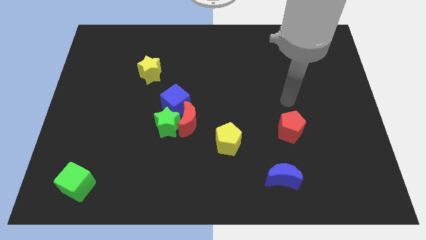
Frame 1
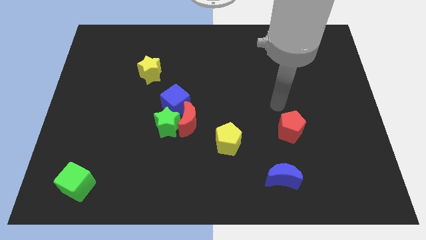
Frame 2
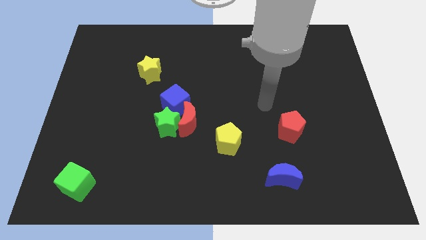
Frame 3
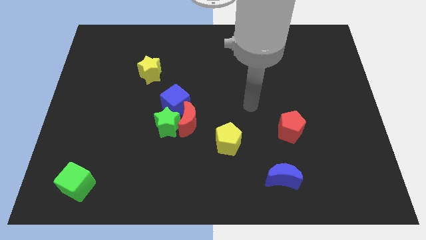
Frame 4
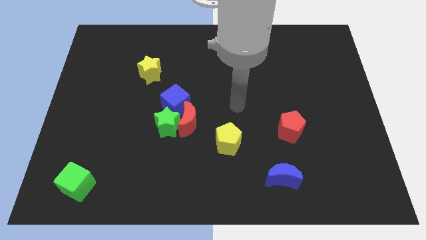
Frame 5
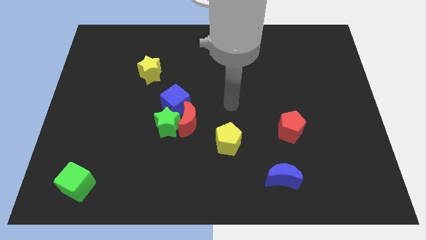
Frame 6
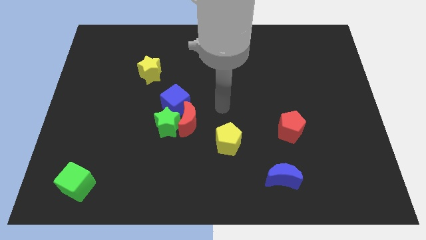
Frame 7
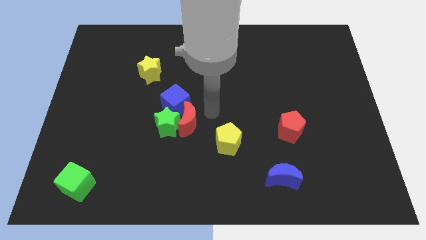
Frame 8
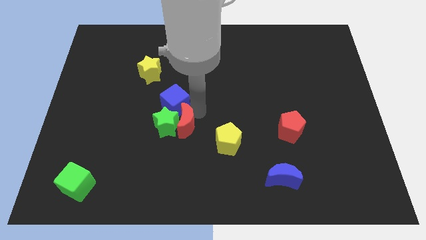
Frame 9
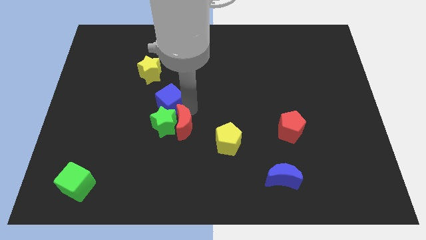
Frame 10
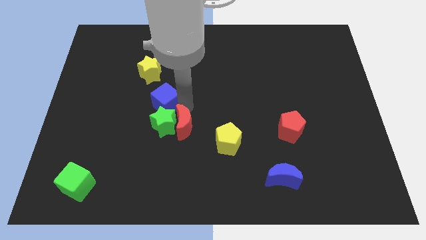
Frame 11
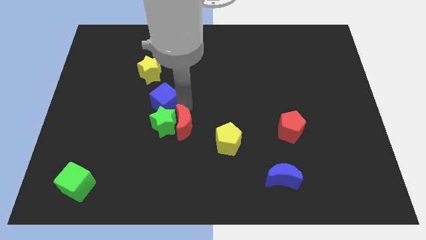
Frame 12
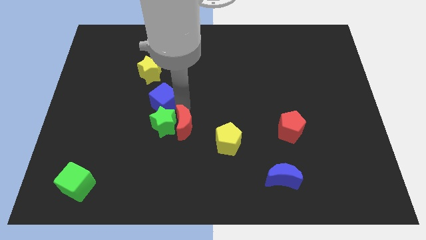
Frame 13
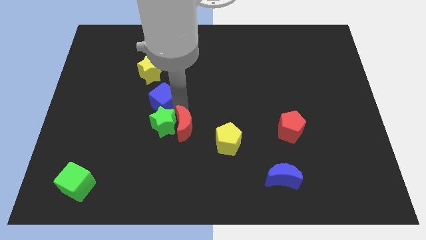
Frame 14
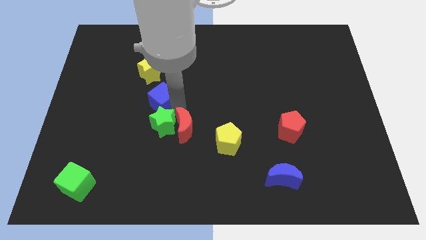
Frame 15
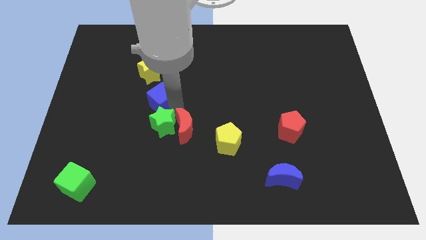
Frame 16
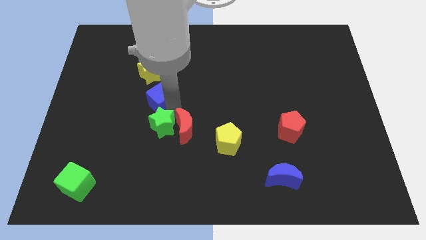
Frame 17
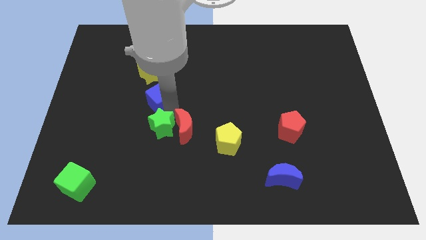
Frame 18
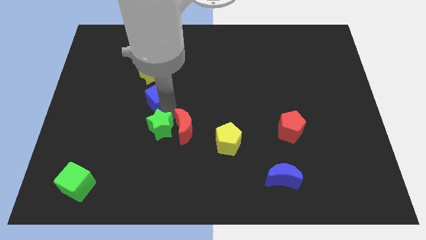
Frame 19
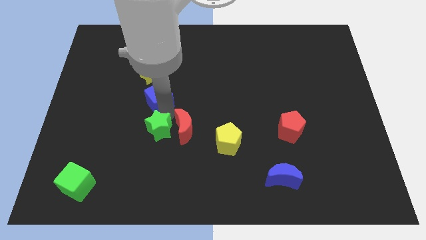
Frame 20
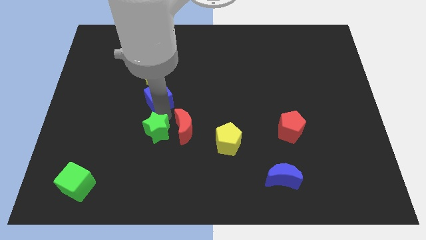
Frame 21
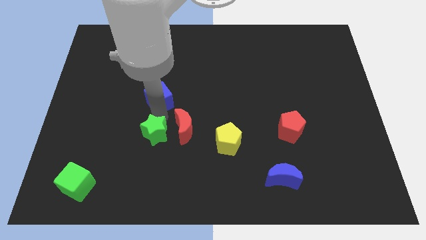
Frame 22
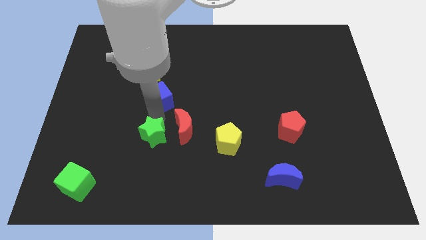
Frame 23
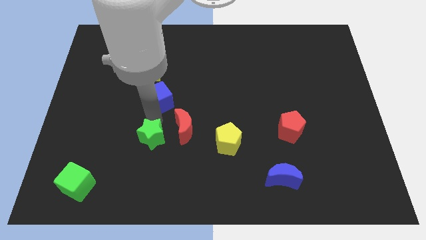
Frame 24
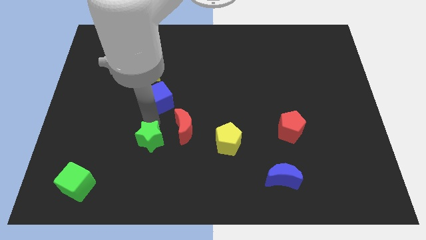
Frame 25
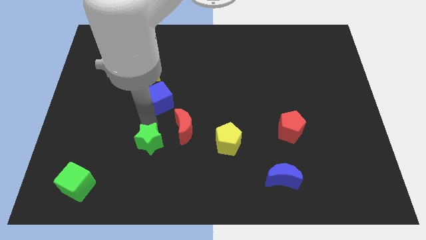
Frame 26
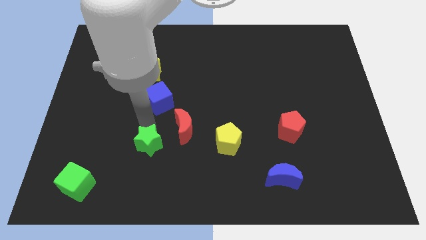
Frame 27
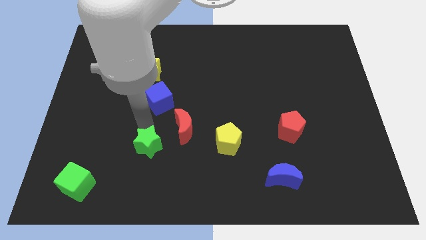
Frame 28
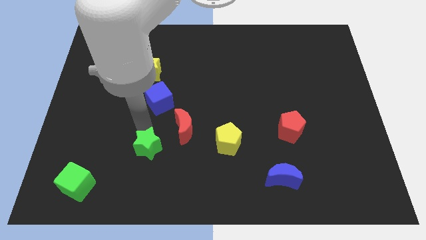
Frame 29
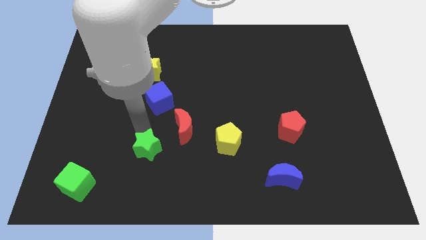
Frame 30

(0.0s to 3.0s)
separate the green star from the red moon and blue cube

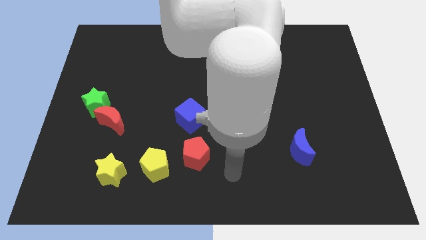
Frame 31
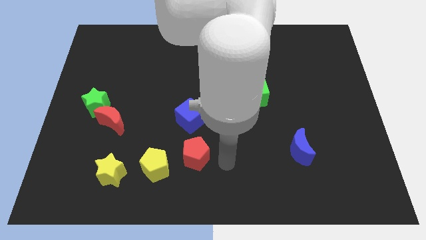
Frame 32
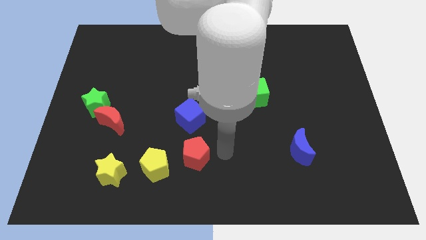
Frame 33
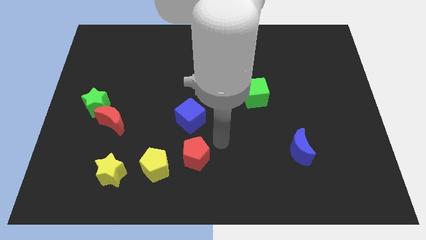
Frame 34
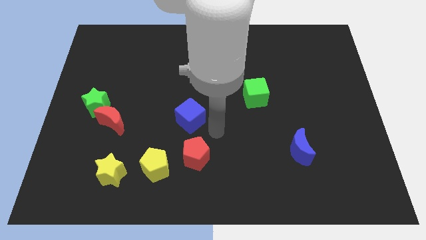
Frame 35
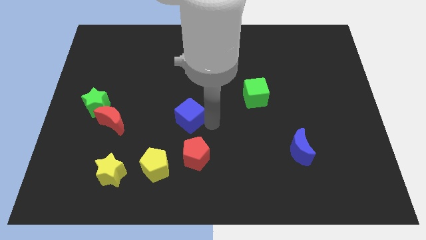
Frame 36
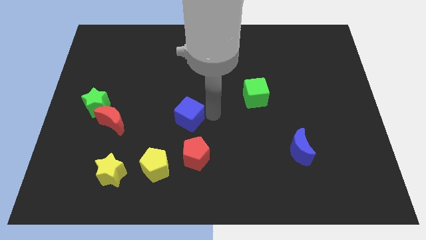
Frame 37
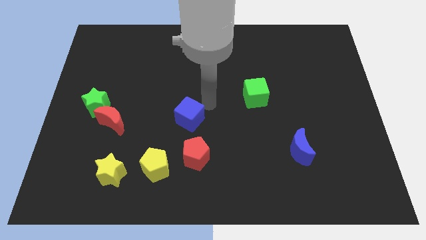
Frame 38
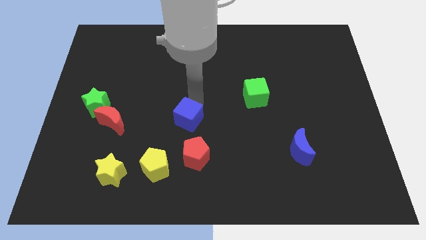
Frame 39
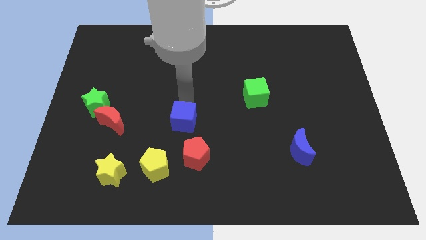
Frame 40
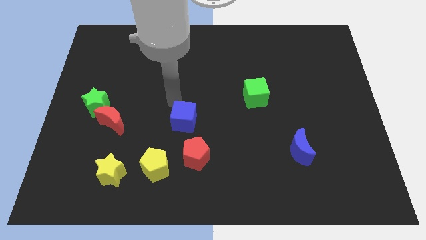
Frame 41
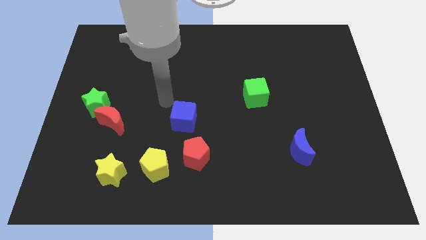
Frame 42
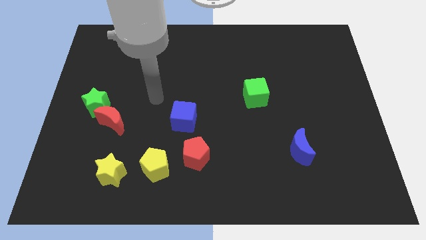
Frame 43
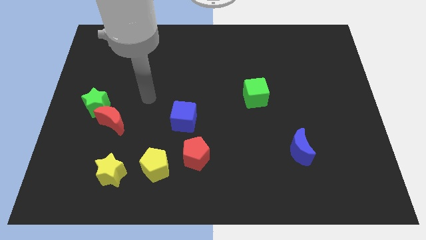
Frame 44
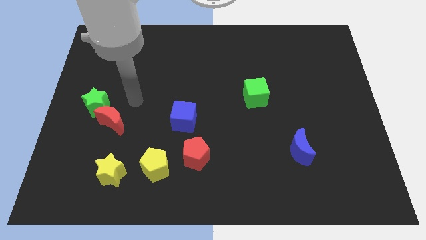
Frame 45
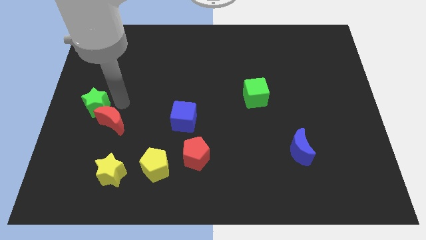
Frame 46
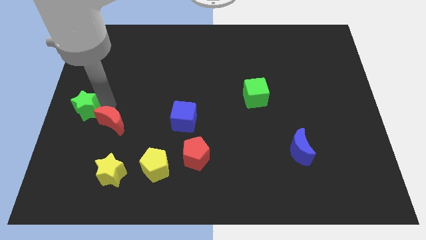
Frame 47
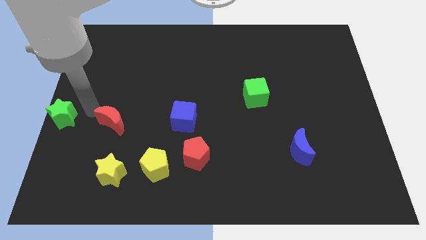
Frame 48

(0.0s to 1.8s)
move the red moon away from the green star

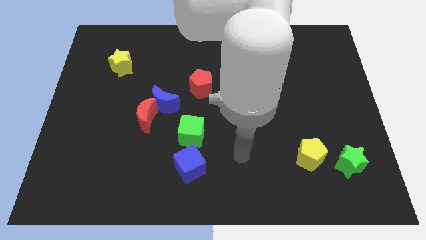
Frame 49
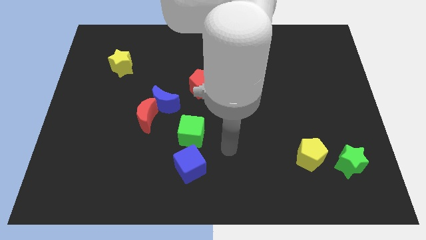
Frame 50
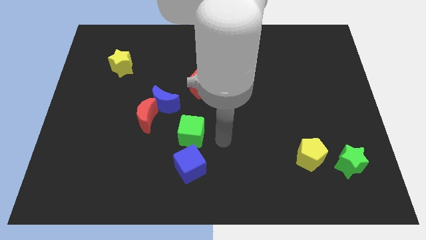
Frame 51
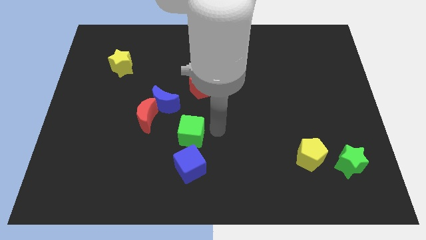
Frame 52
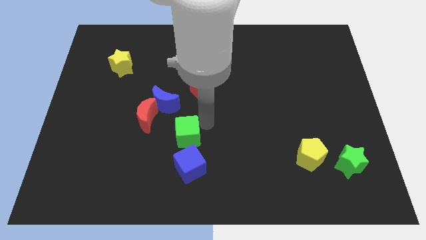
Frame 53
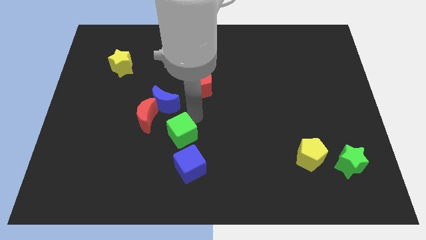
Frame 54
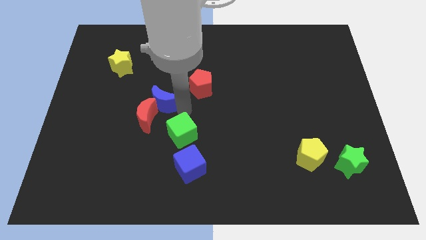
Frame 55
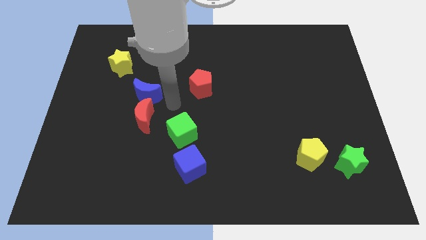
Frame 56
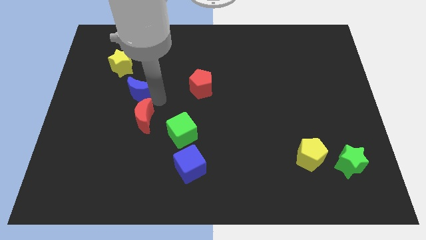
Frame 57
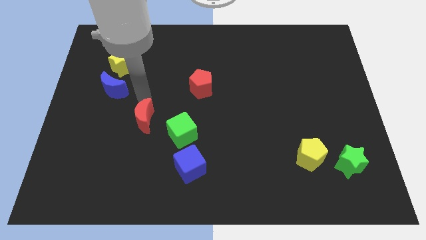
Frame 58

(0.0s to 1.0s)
separate the red moon from the blue moon

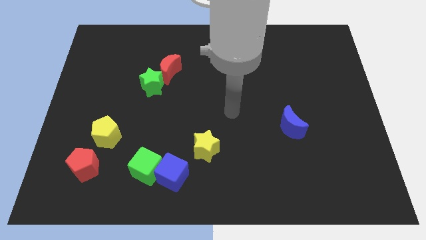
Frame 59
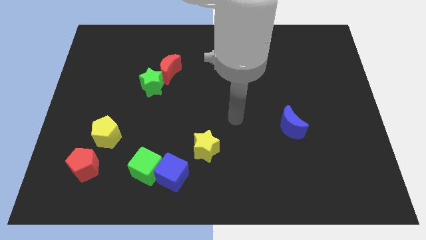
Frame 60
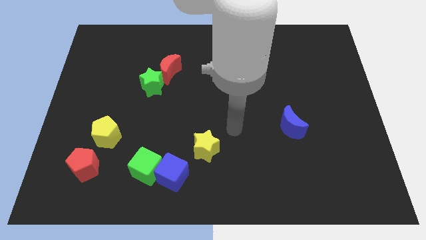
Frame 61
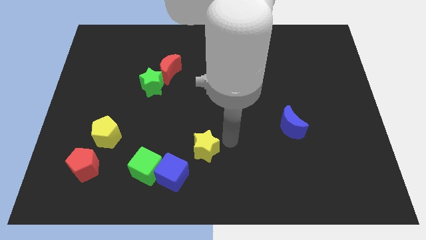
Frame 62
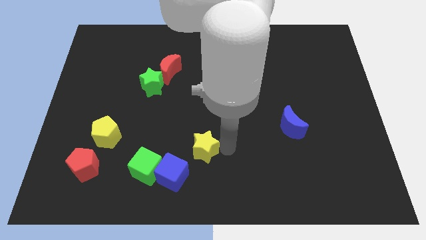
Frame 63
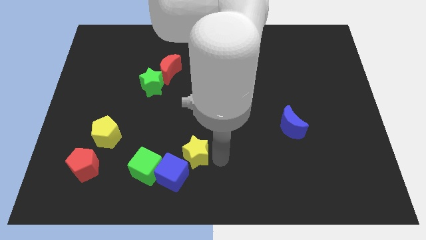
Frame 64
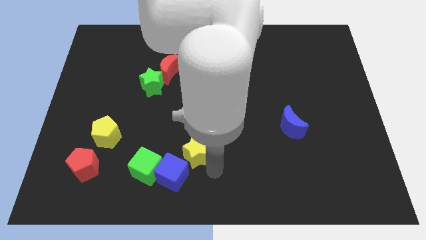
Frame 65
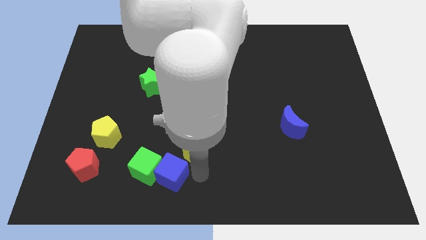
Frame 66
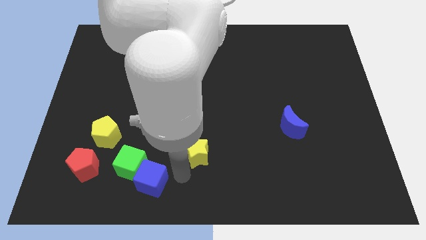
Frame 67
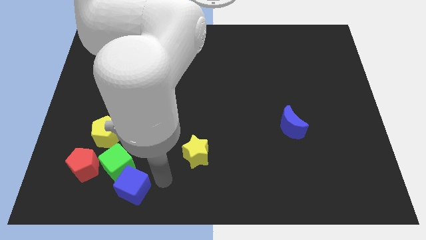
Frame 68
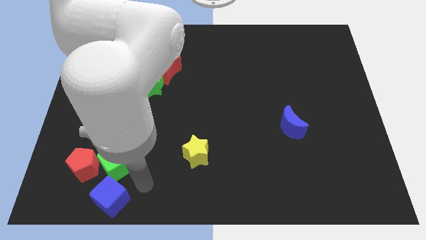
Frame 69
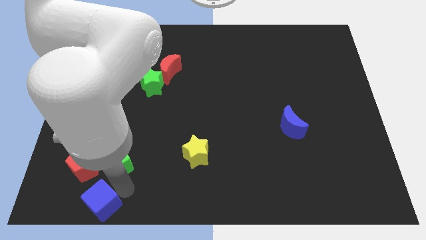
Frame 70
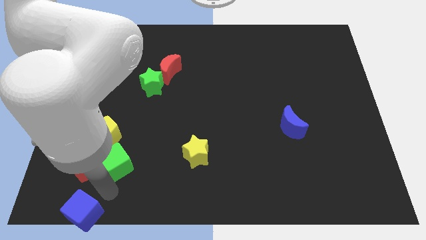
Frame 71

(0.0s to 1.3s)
move the green cube away from the blue cube

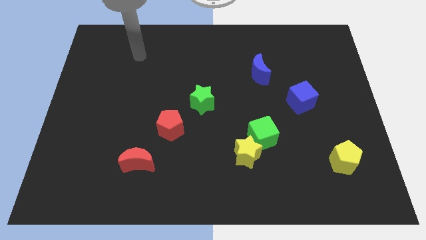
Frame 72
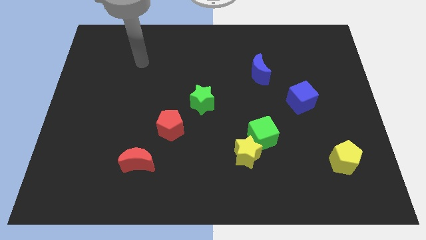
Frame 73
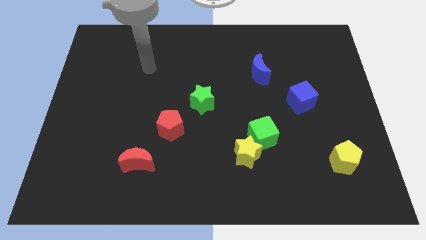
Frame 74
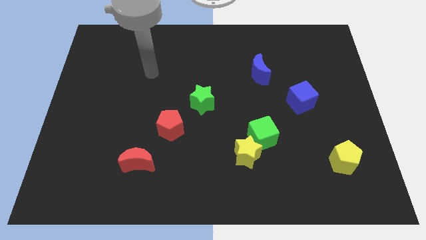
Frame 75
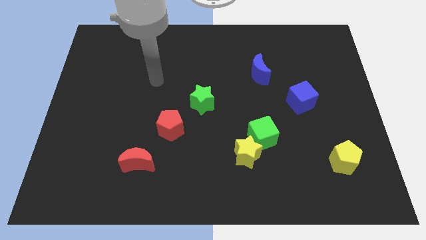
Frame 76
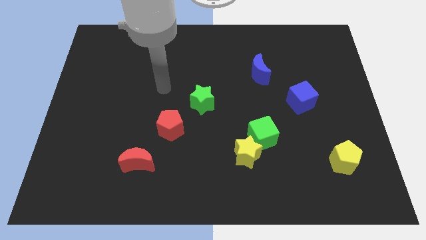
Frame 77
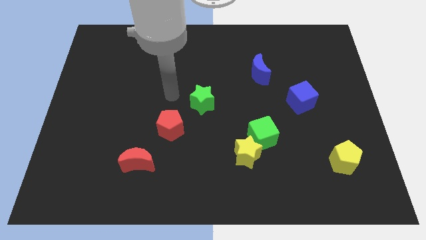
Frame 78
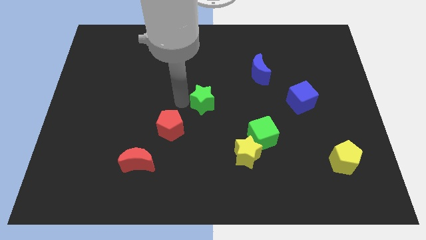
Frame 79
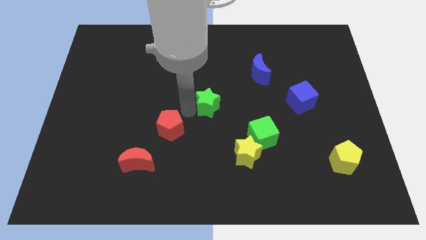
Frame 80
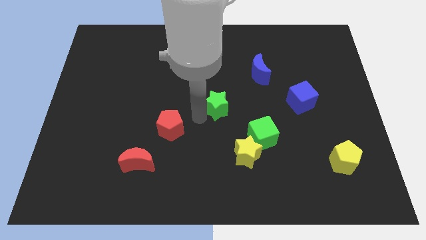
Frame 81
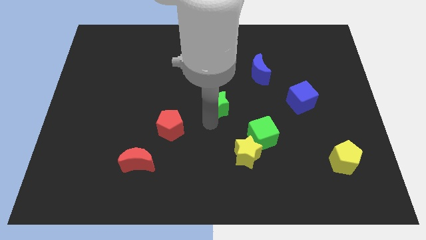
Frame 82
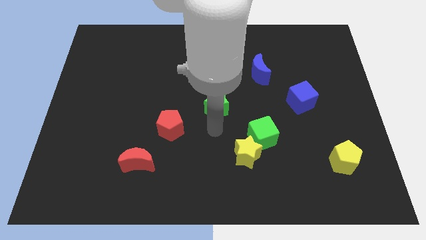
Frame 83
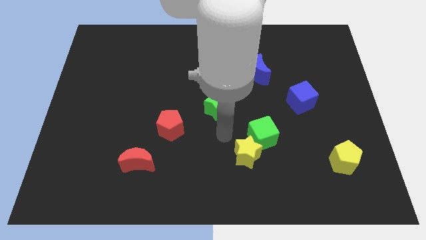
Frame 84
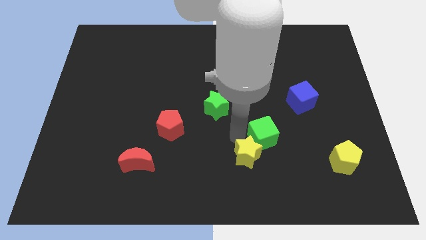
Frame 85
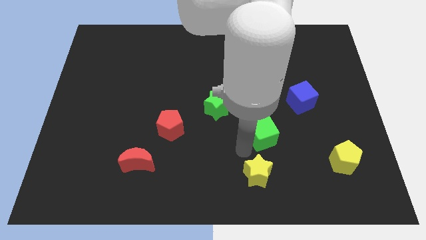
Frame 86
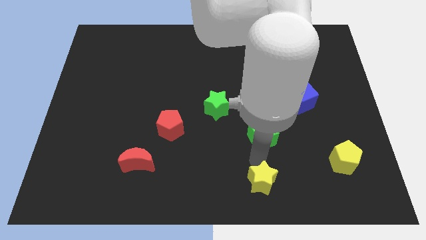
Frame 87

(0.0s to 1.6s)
separate the green cube from the yellow star

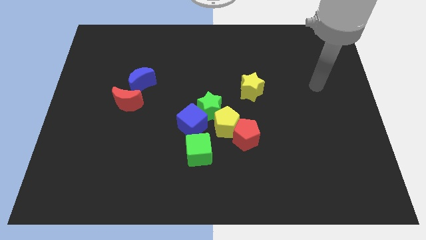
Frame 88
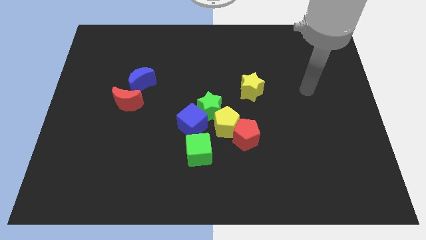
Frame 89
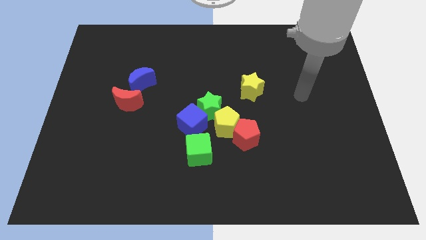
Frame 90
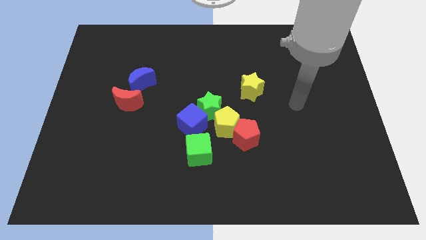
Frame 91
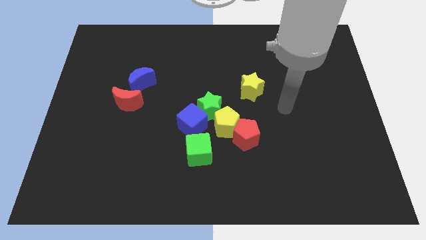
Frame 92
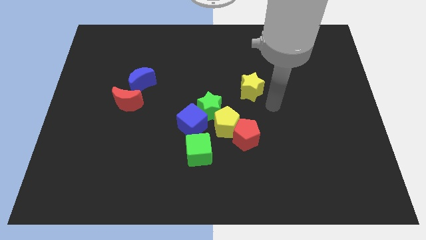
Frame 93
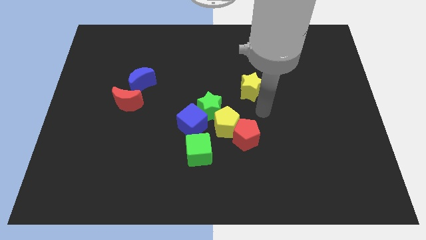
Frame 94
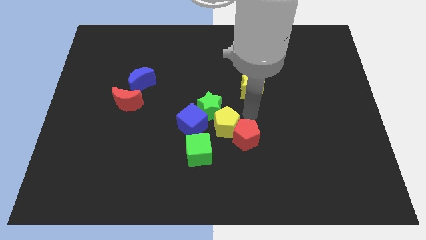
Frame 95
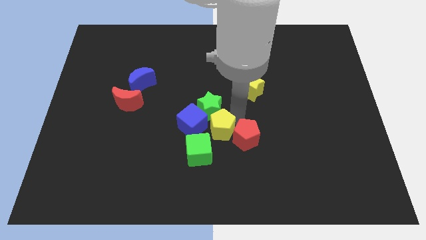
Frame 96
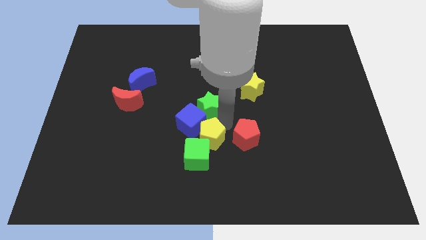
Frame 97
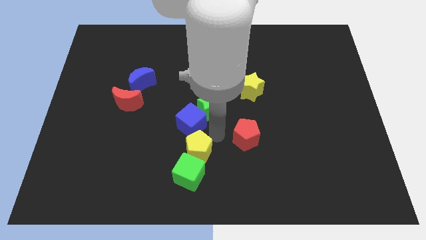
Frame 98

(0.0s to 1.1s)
separate the red pentagon from the yellow pentagon
